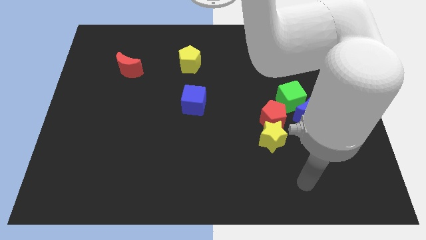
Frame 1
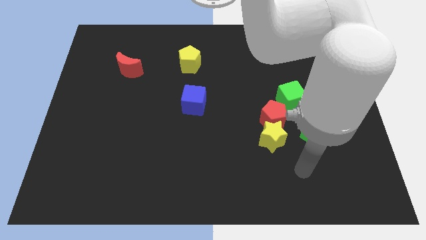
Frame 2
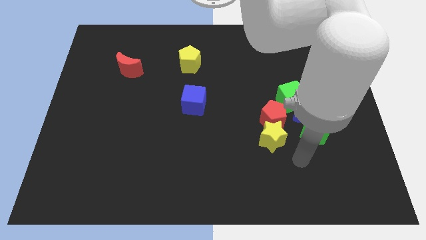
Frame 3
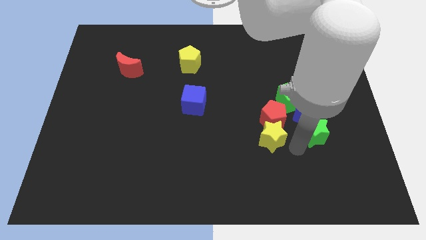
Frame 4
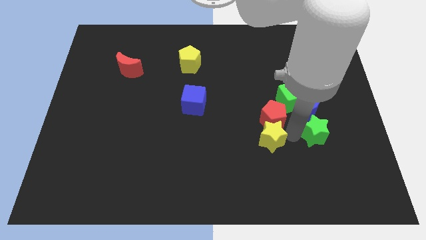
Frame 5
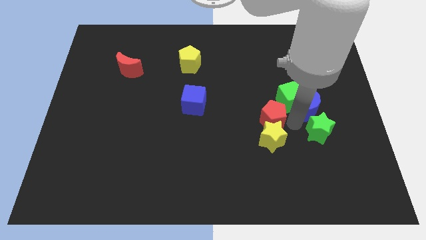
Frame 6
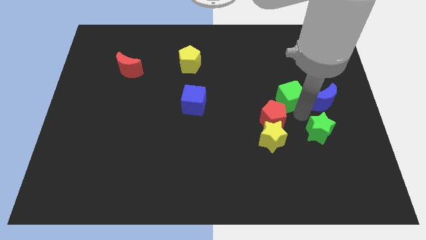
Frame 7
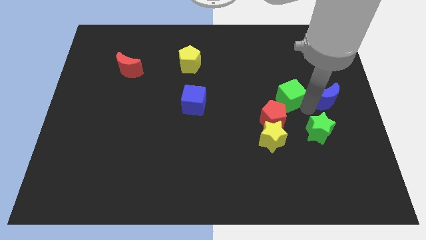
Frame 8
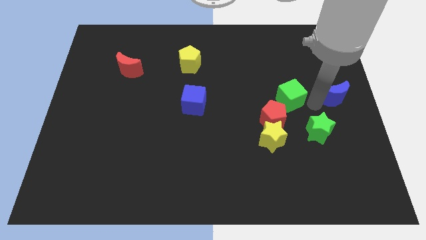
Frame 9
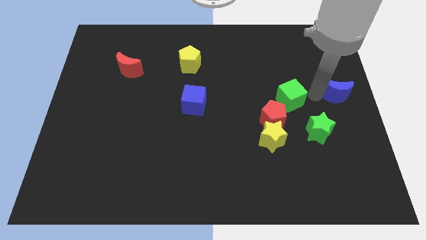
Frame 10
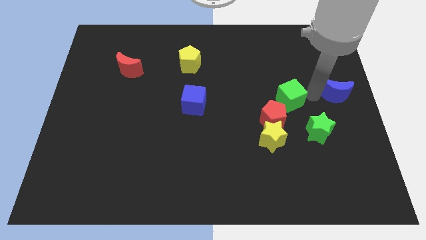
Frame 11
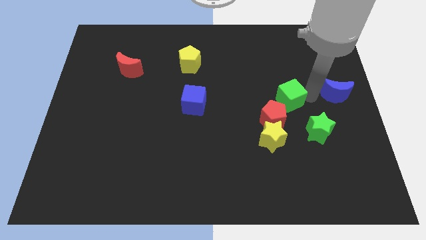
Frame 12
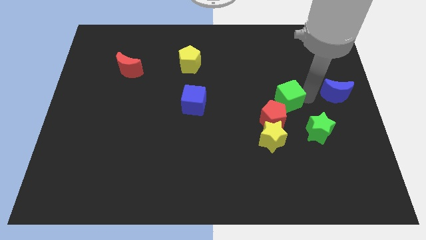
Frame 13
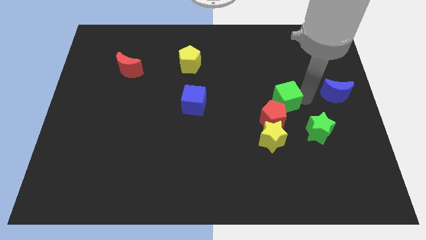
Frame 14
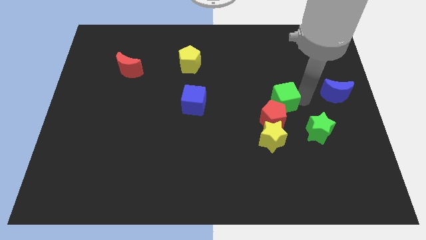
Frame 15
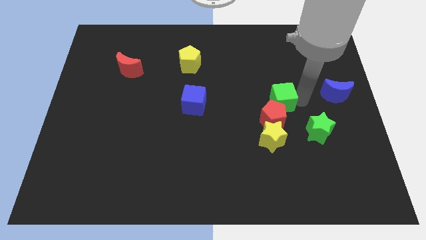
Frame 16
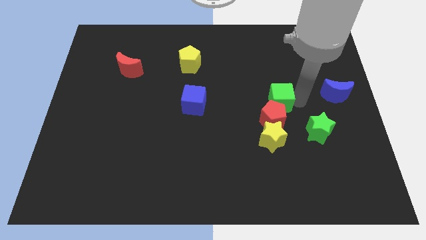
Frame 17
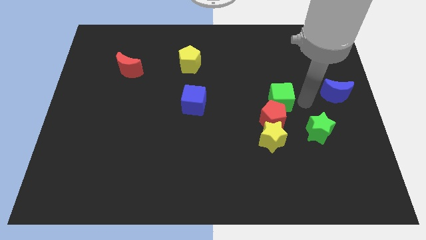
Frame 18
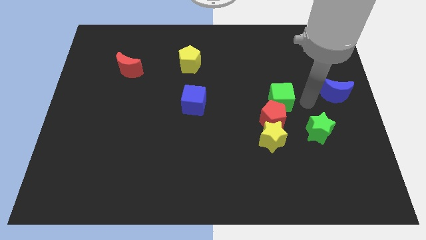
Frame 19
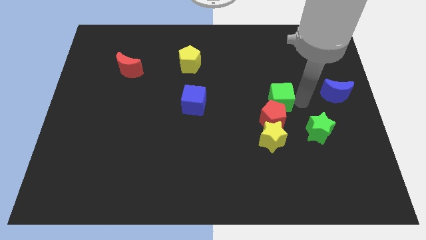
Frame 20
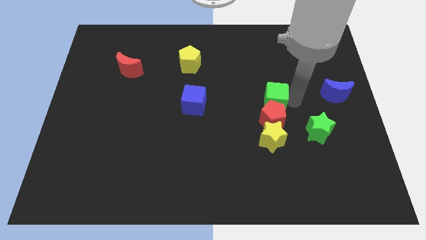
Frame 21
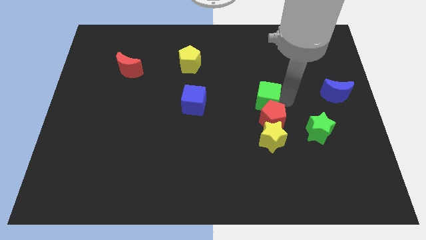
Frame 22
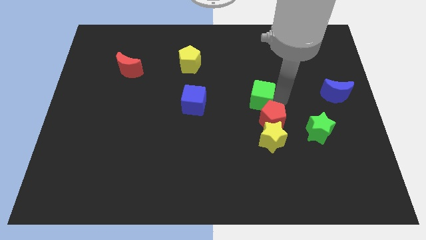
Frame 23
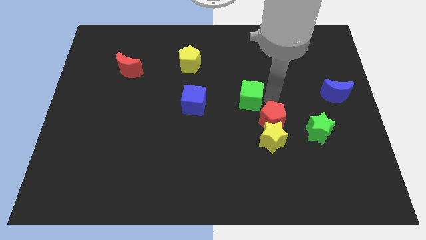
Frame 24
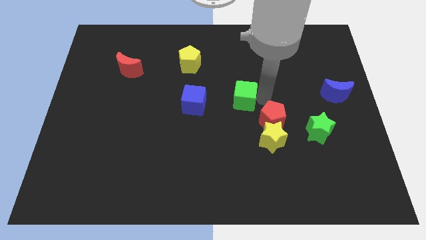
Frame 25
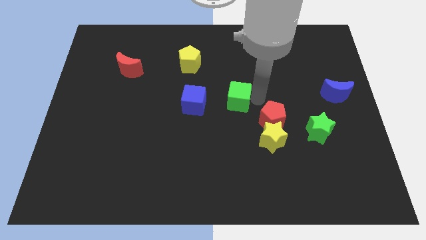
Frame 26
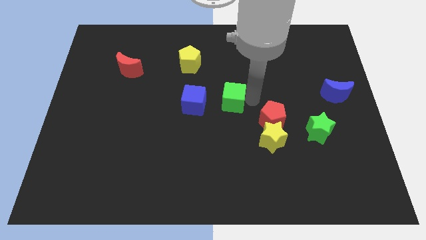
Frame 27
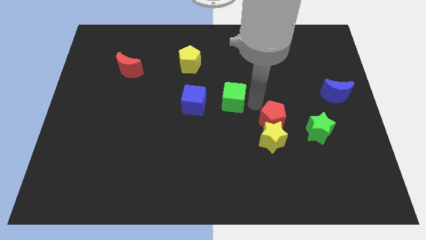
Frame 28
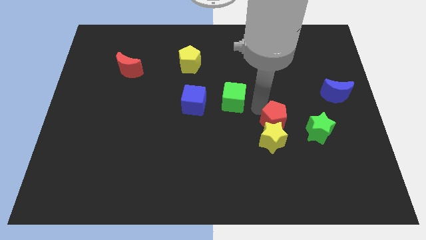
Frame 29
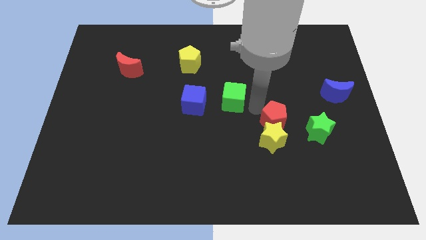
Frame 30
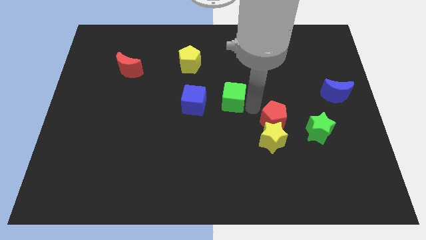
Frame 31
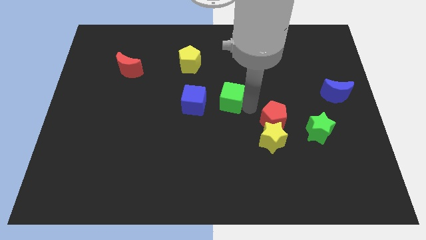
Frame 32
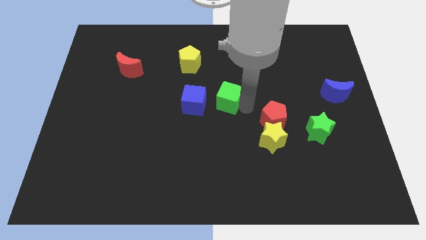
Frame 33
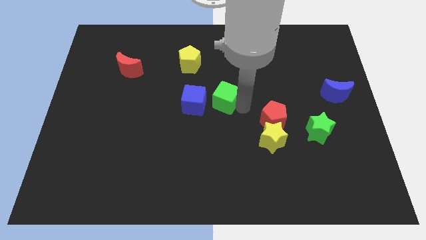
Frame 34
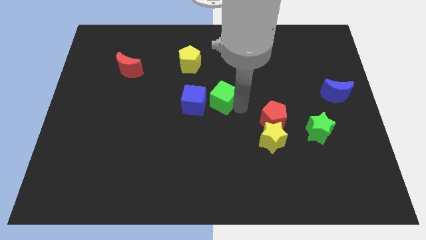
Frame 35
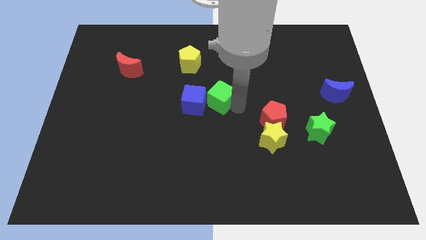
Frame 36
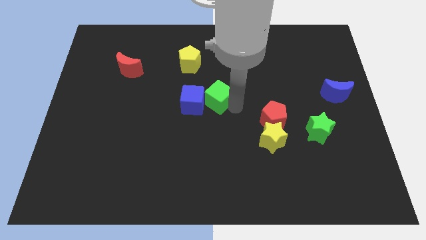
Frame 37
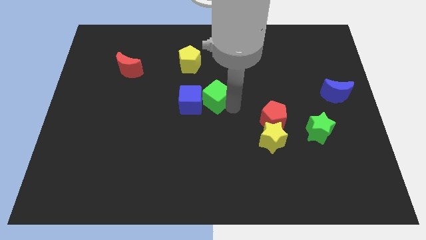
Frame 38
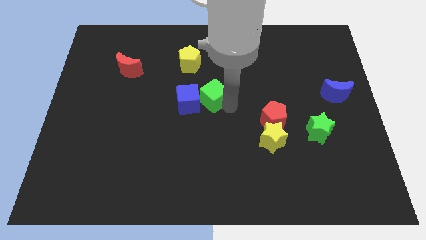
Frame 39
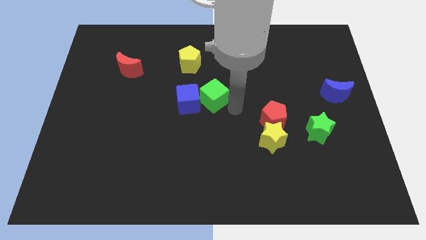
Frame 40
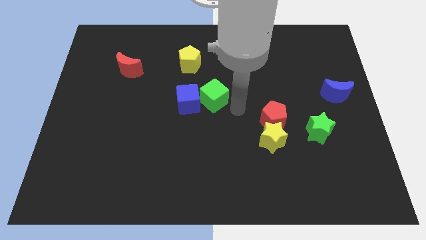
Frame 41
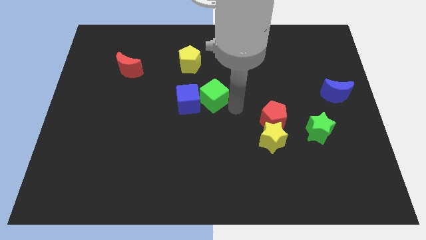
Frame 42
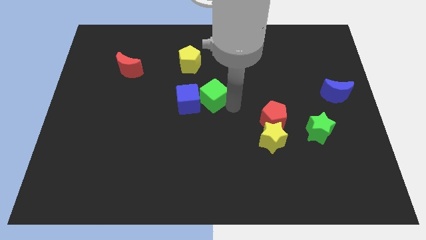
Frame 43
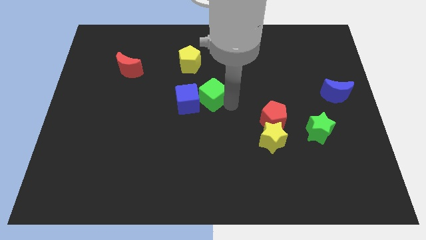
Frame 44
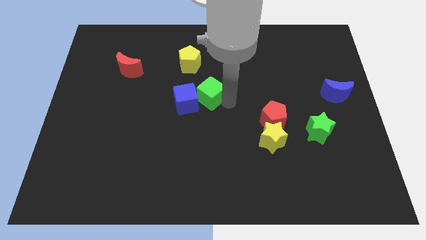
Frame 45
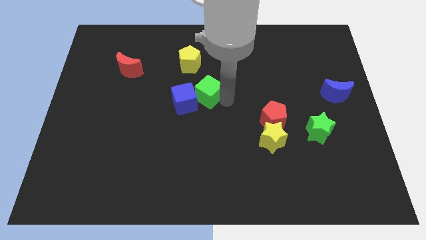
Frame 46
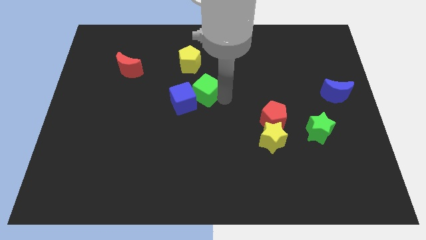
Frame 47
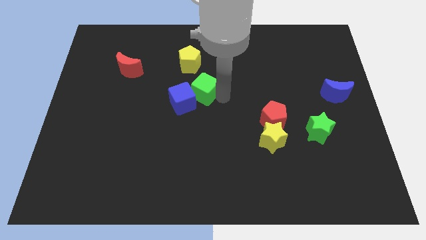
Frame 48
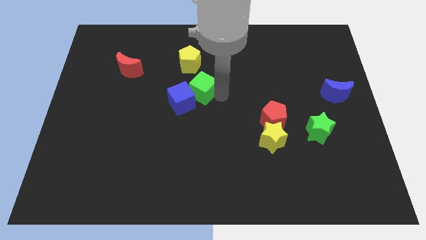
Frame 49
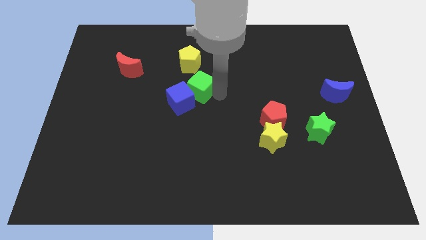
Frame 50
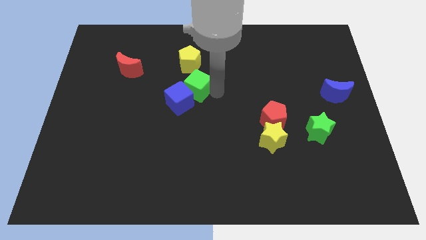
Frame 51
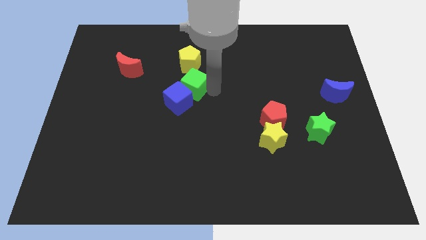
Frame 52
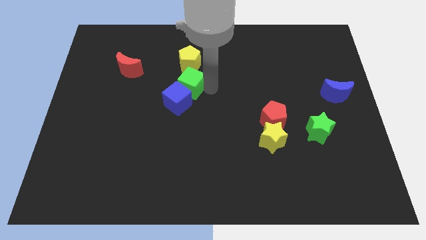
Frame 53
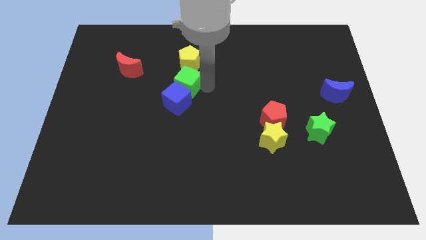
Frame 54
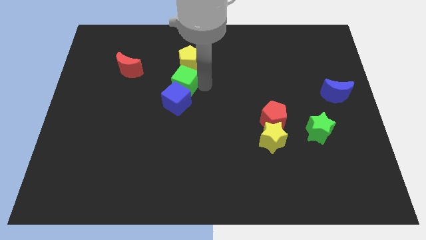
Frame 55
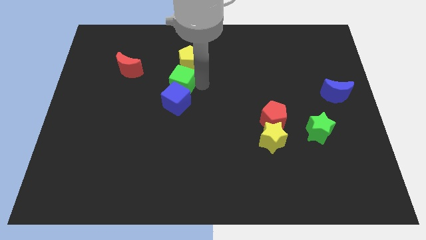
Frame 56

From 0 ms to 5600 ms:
move the green cube diagonally up and to the left of the blue cube

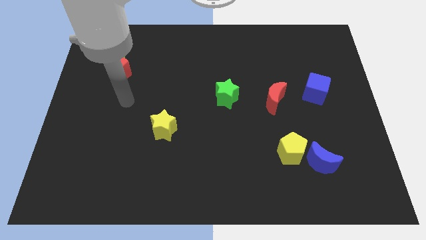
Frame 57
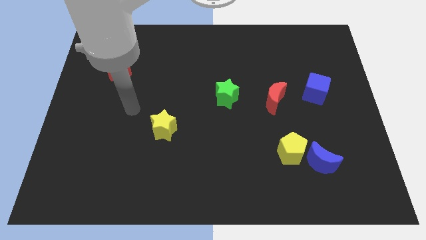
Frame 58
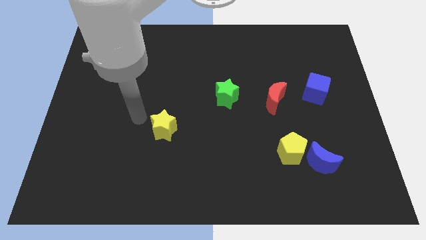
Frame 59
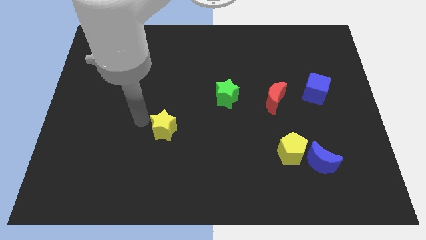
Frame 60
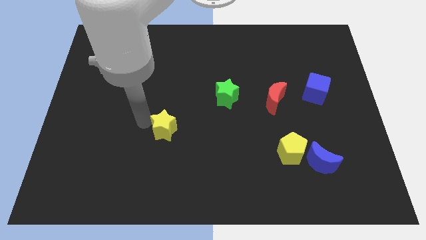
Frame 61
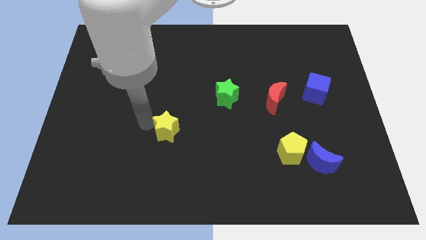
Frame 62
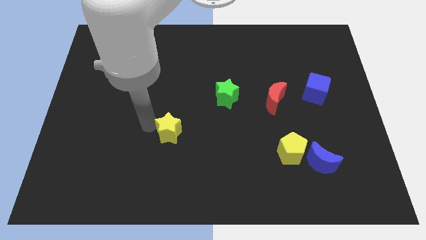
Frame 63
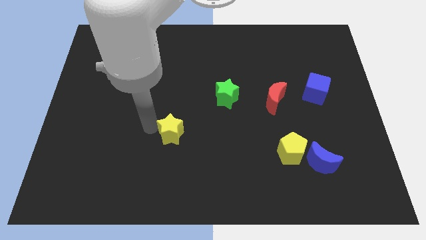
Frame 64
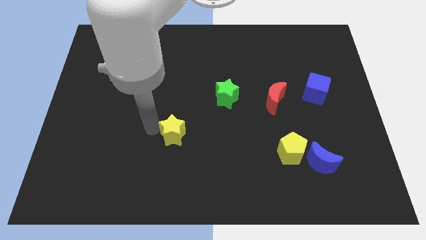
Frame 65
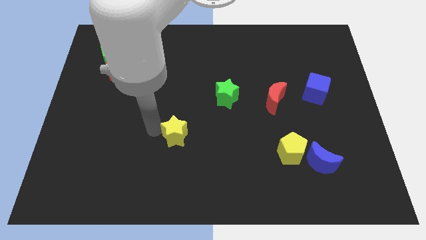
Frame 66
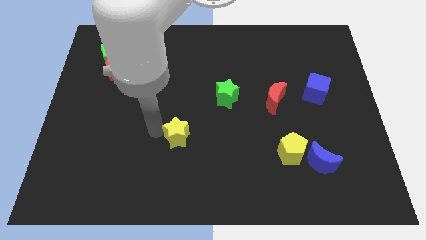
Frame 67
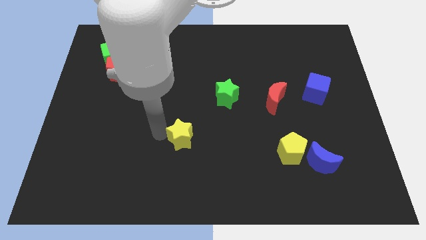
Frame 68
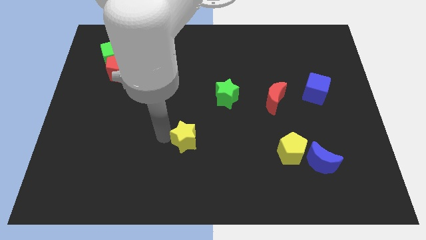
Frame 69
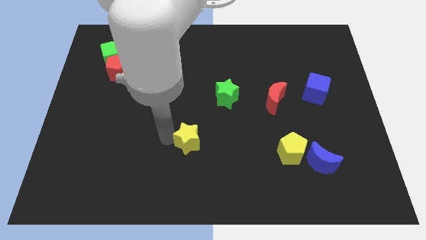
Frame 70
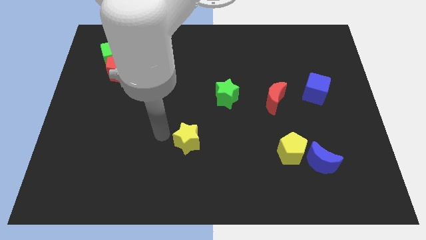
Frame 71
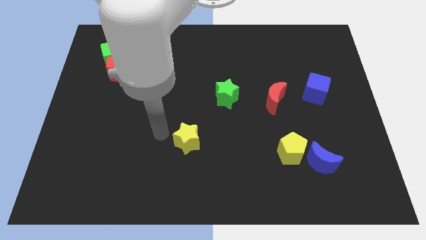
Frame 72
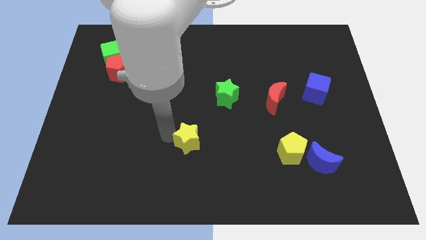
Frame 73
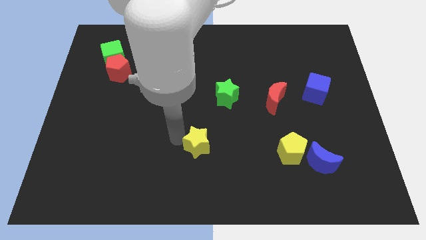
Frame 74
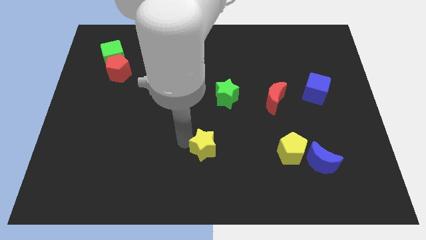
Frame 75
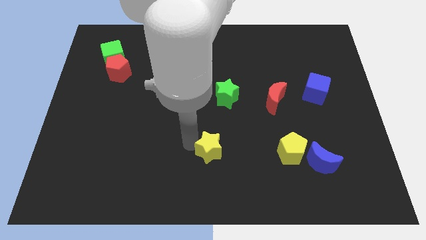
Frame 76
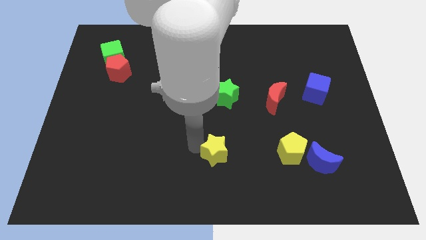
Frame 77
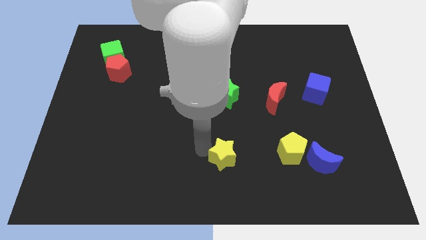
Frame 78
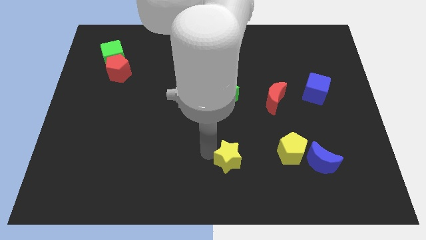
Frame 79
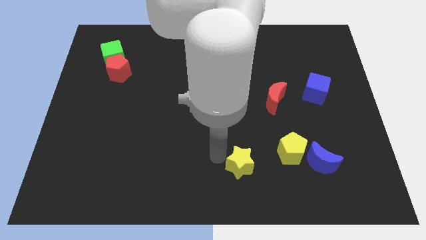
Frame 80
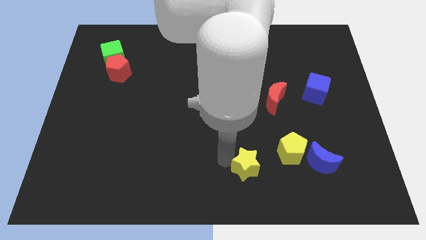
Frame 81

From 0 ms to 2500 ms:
move the yellow star to the bottom left side of the yellow pentagon
